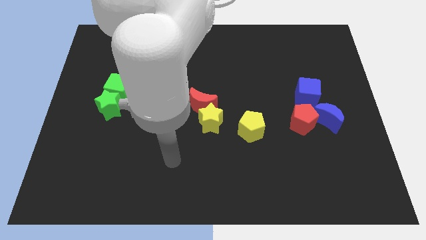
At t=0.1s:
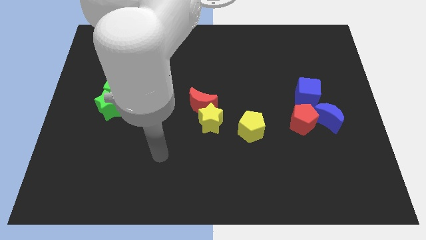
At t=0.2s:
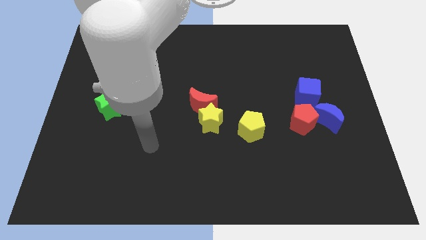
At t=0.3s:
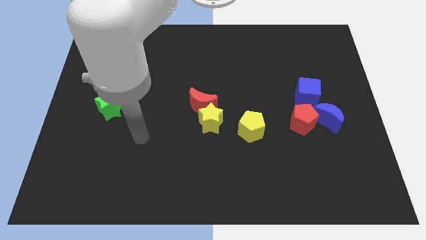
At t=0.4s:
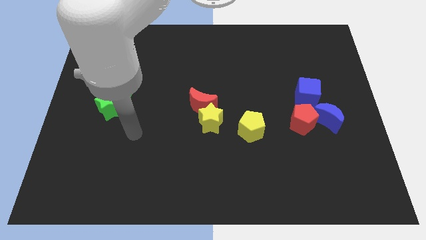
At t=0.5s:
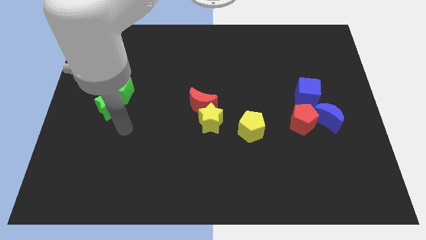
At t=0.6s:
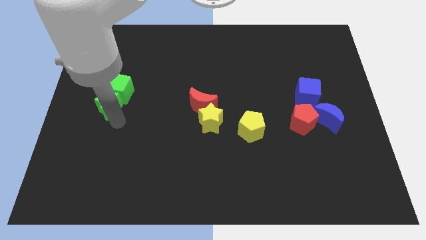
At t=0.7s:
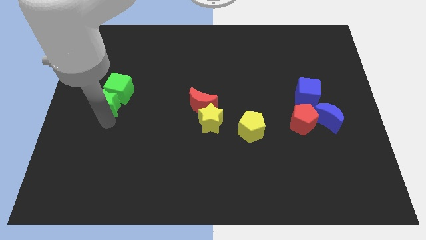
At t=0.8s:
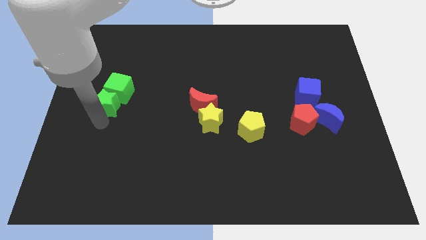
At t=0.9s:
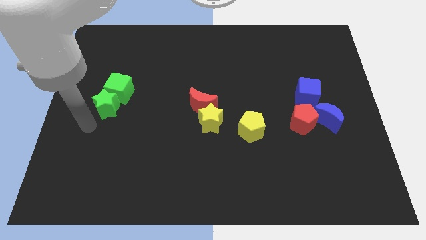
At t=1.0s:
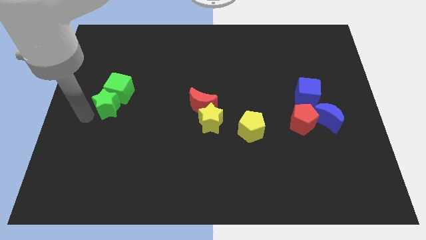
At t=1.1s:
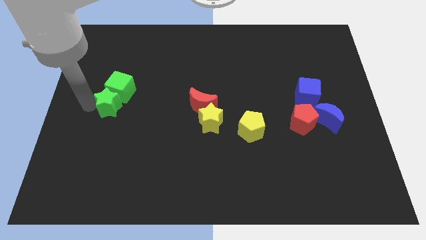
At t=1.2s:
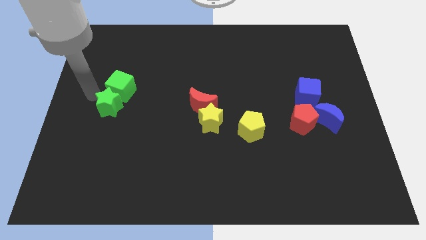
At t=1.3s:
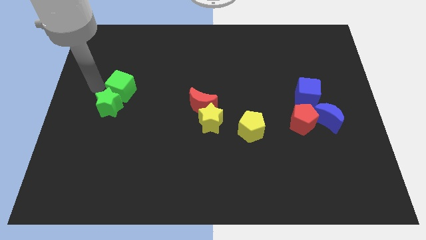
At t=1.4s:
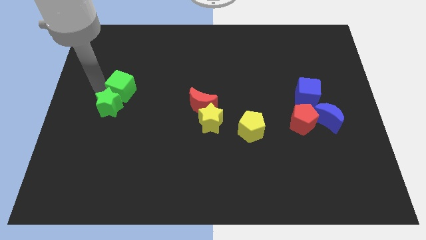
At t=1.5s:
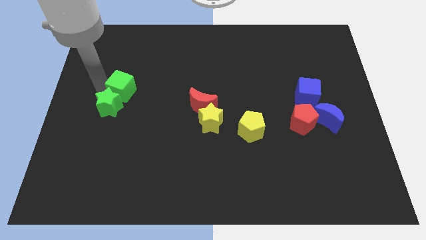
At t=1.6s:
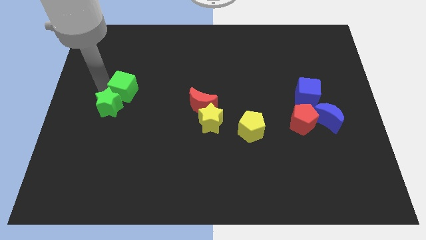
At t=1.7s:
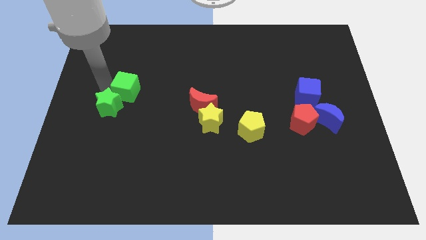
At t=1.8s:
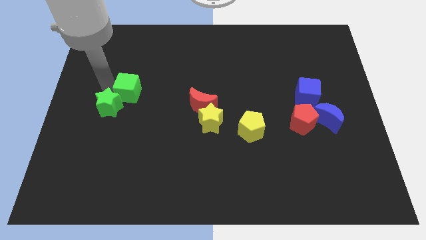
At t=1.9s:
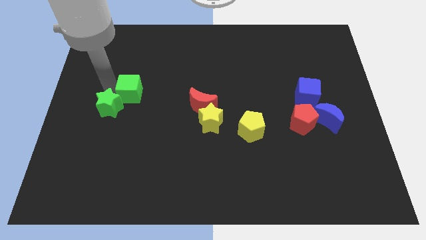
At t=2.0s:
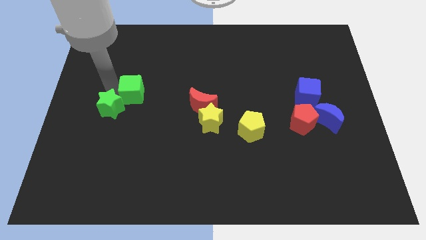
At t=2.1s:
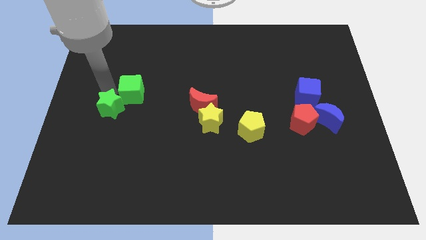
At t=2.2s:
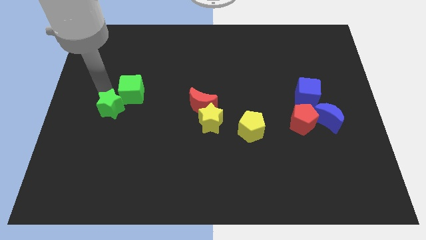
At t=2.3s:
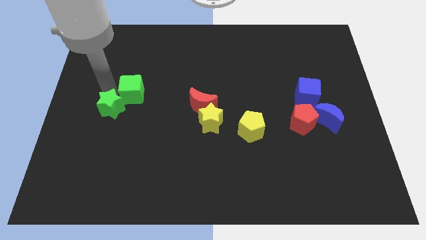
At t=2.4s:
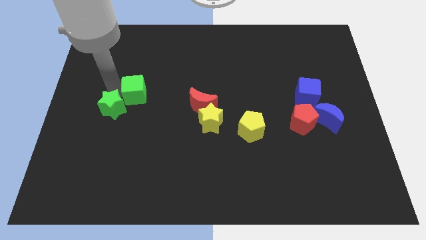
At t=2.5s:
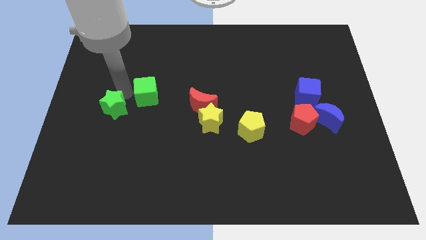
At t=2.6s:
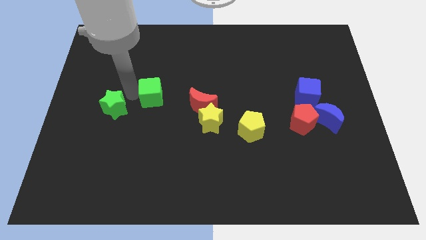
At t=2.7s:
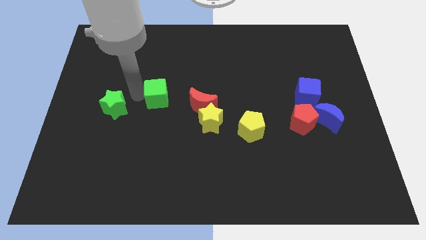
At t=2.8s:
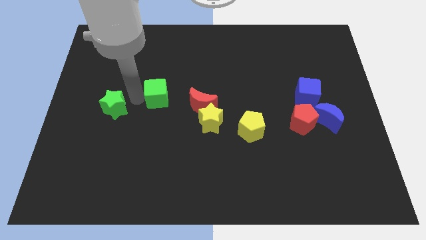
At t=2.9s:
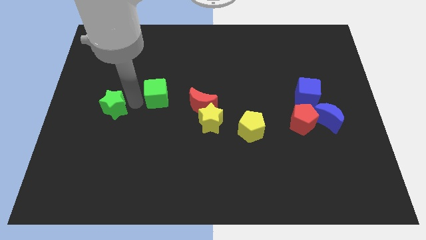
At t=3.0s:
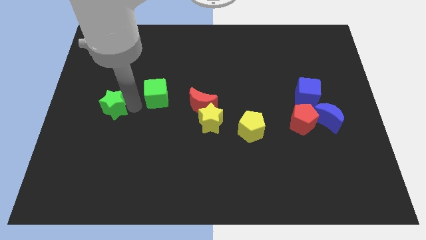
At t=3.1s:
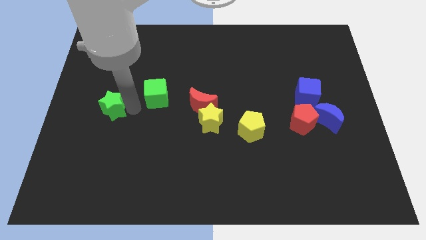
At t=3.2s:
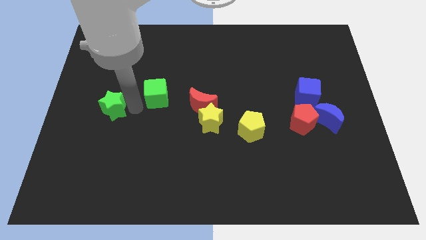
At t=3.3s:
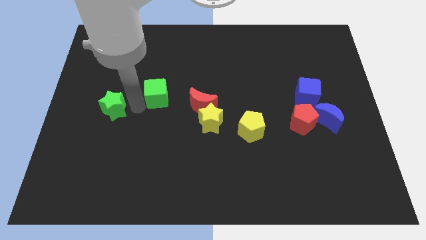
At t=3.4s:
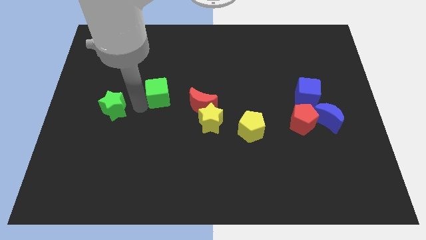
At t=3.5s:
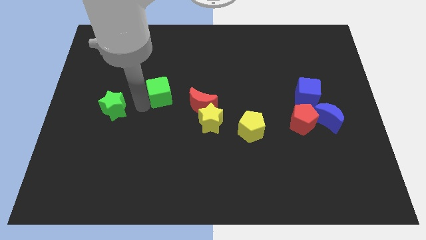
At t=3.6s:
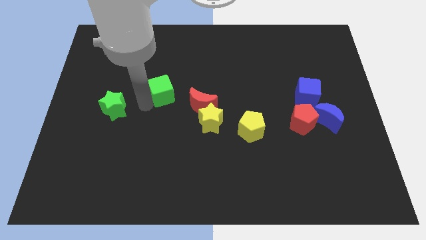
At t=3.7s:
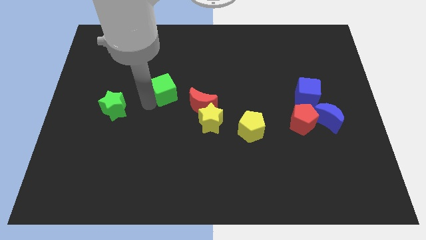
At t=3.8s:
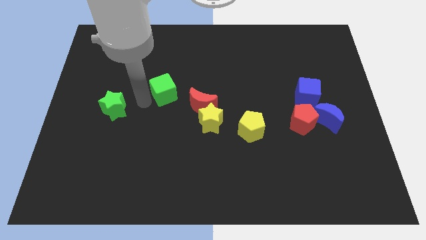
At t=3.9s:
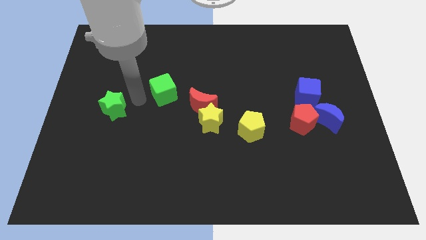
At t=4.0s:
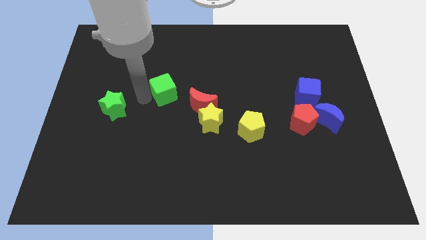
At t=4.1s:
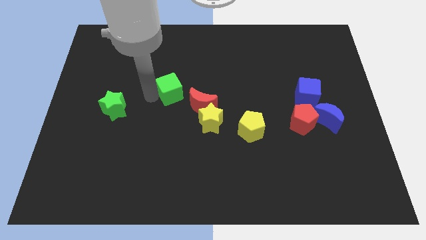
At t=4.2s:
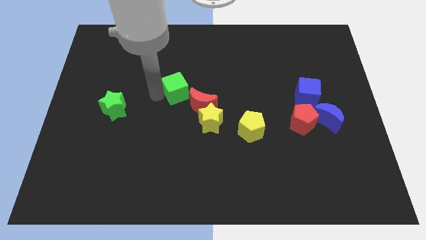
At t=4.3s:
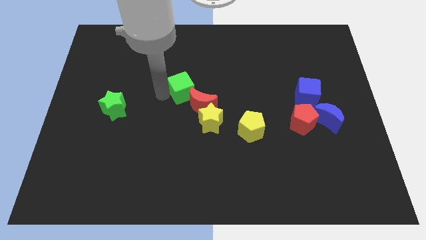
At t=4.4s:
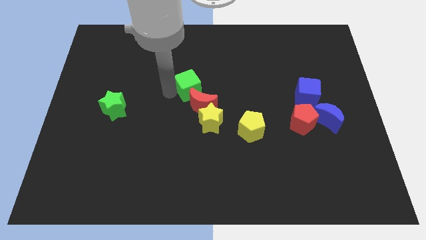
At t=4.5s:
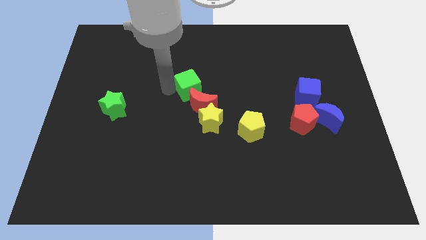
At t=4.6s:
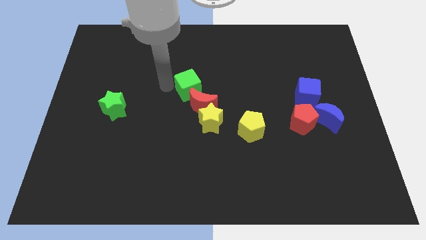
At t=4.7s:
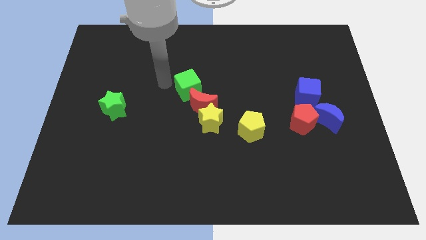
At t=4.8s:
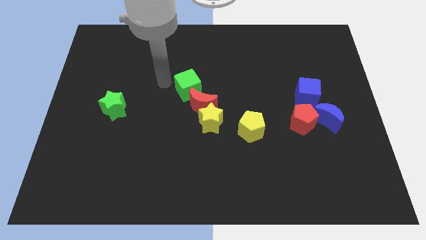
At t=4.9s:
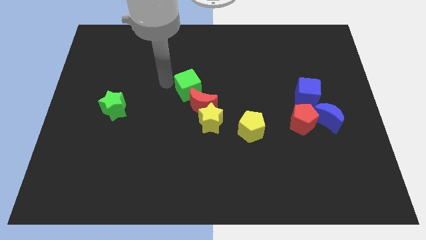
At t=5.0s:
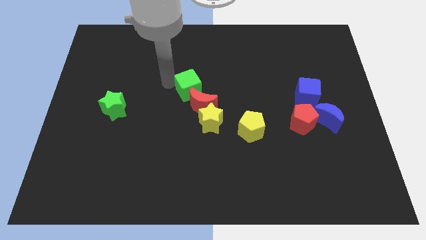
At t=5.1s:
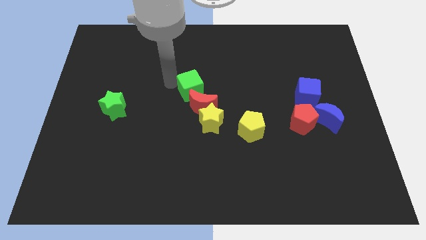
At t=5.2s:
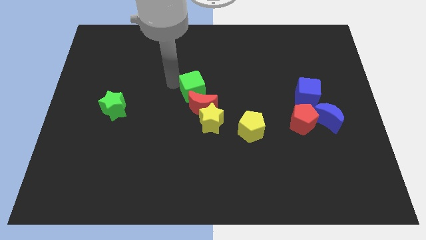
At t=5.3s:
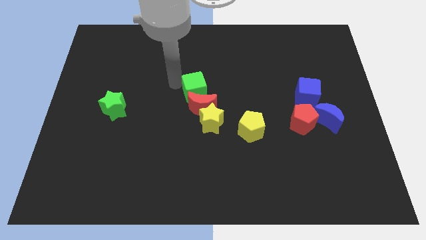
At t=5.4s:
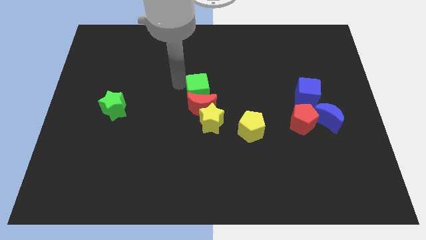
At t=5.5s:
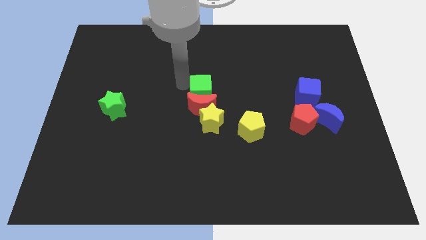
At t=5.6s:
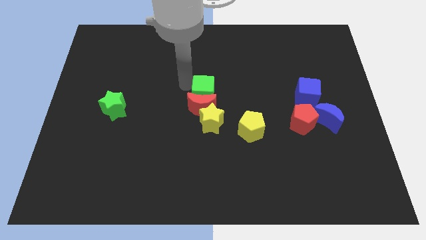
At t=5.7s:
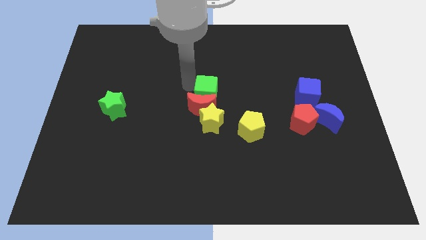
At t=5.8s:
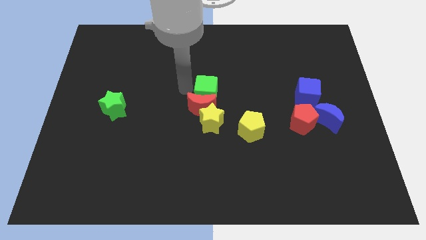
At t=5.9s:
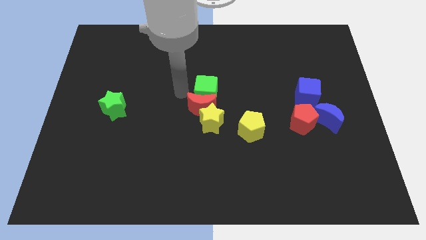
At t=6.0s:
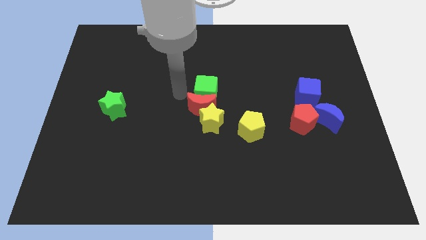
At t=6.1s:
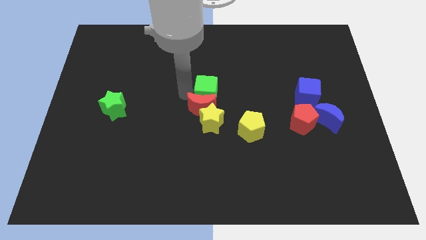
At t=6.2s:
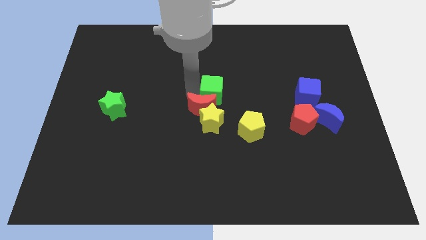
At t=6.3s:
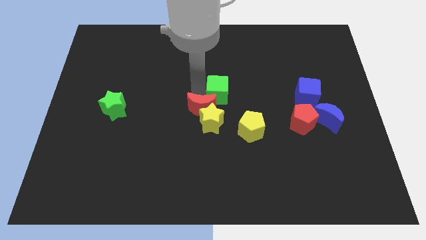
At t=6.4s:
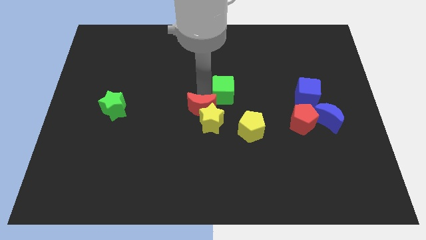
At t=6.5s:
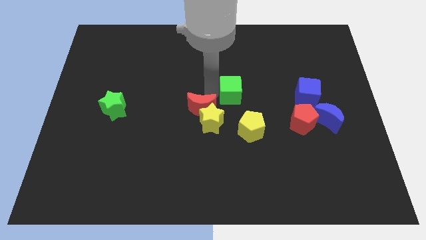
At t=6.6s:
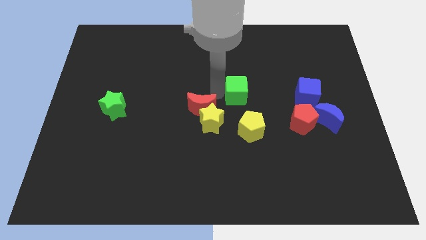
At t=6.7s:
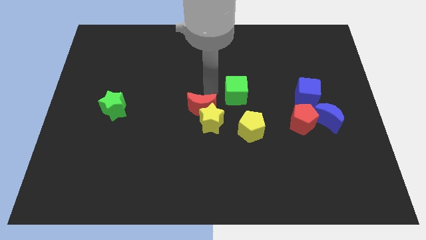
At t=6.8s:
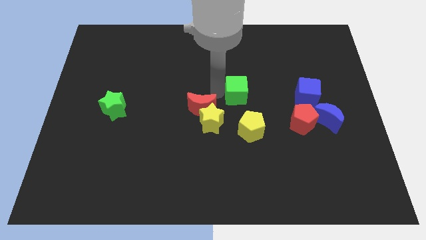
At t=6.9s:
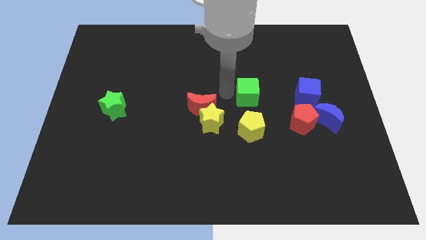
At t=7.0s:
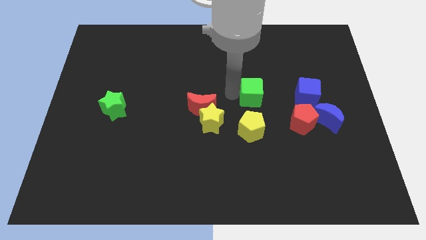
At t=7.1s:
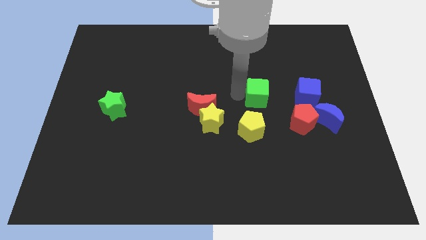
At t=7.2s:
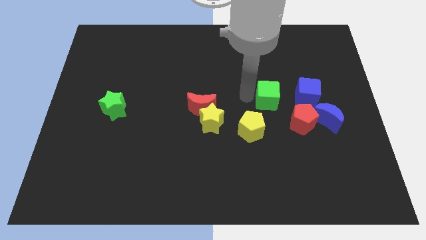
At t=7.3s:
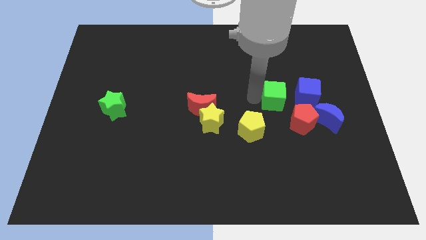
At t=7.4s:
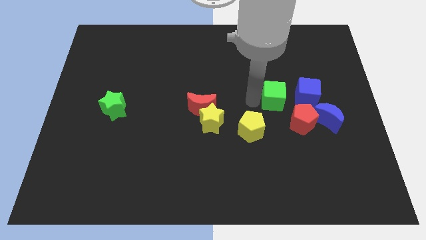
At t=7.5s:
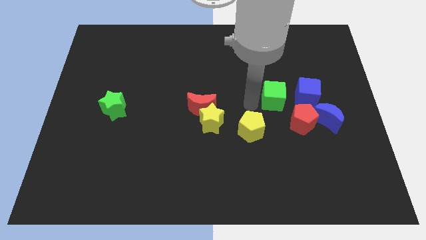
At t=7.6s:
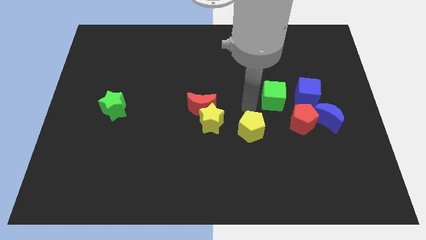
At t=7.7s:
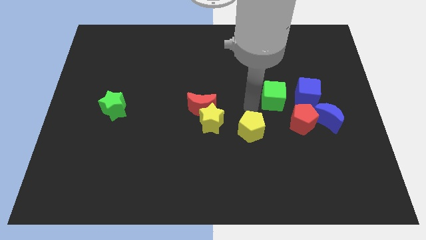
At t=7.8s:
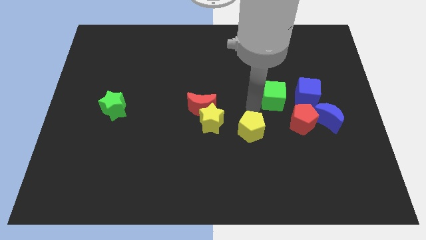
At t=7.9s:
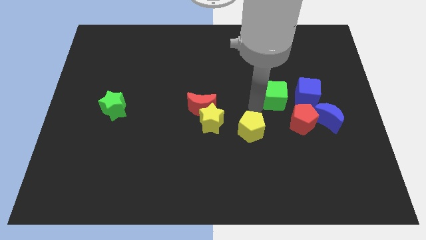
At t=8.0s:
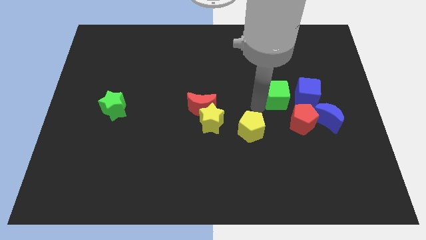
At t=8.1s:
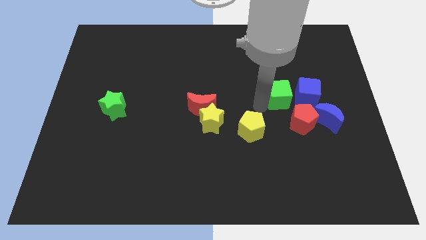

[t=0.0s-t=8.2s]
slide the green cube to the top left side of the blue moon
